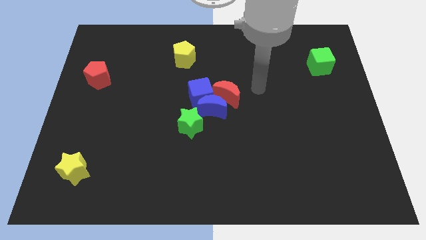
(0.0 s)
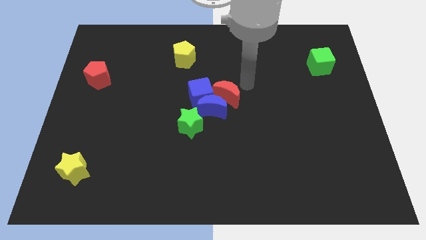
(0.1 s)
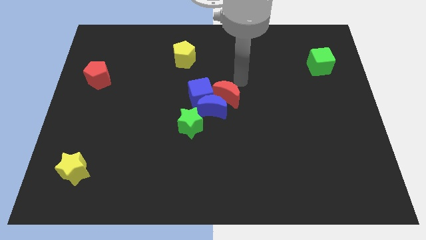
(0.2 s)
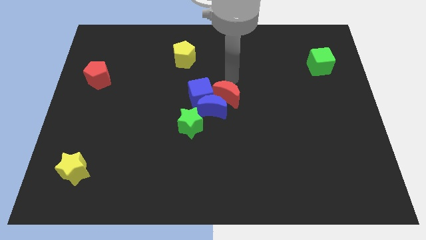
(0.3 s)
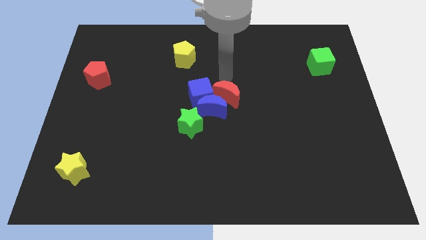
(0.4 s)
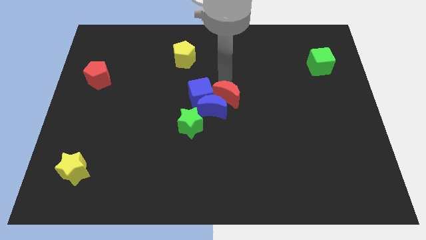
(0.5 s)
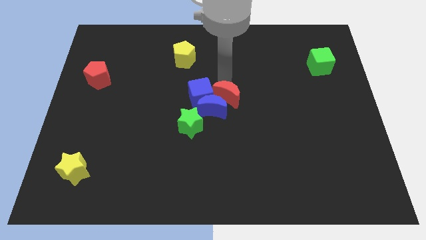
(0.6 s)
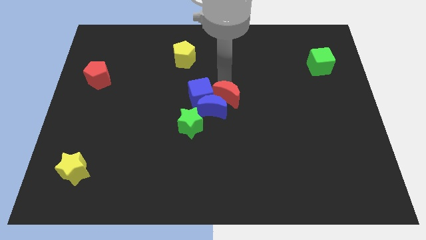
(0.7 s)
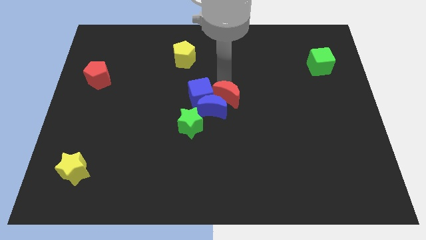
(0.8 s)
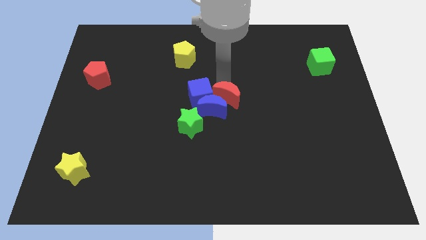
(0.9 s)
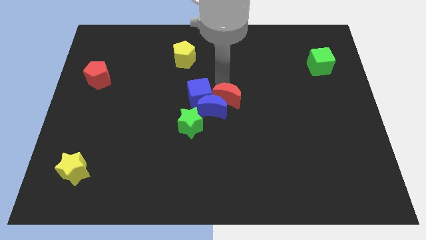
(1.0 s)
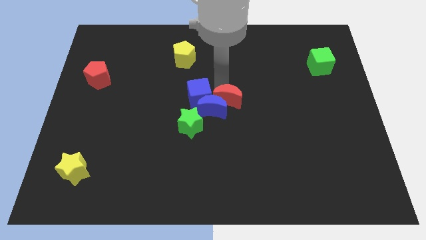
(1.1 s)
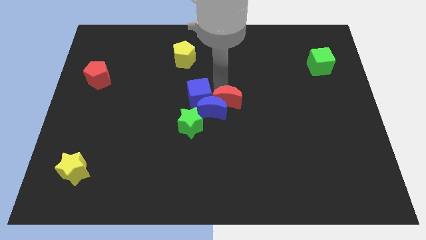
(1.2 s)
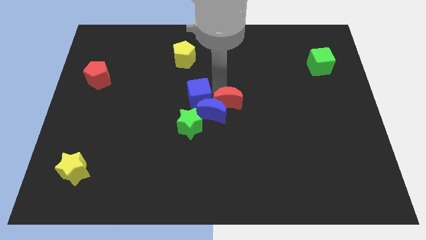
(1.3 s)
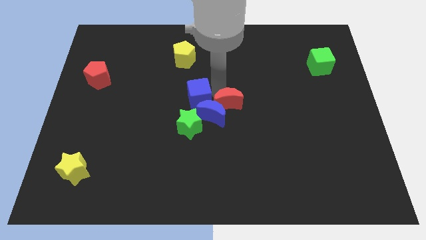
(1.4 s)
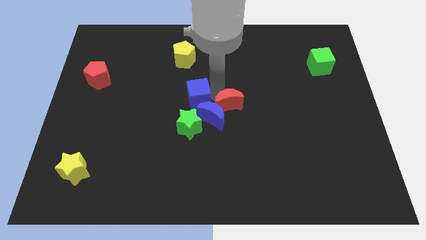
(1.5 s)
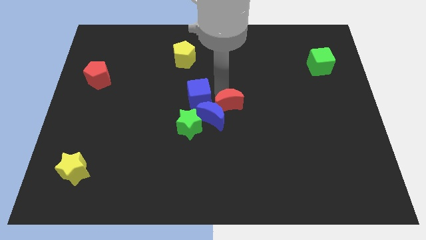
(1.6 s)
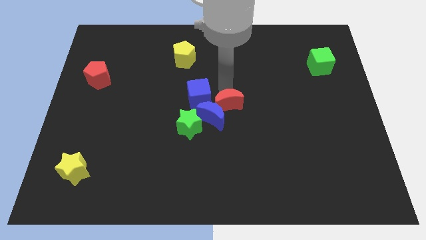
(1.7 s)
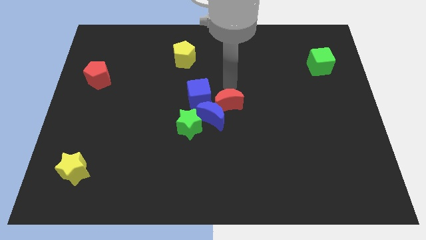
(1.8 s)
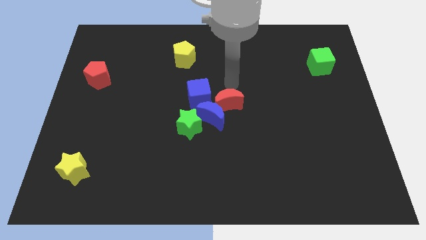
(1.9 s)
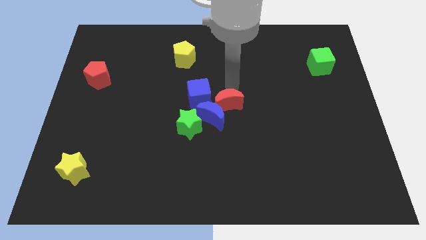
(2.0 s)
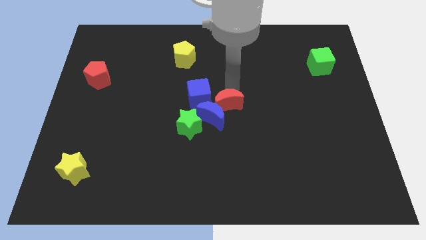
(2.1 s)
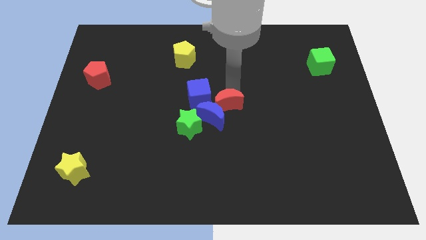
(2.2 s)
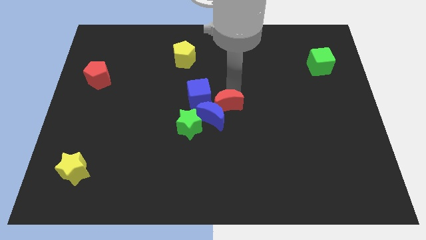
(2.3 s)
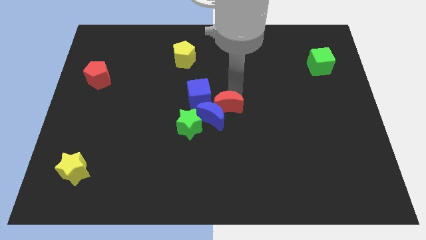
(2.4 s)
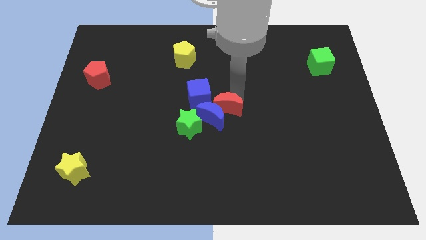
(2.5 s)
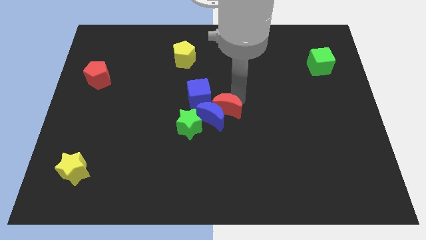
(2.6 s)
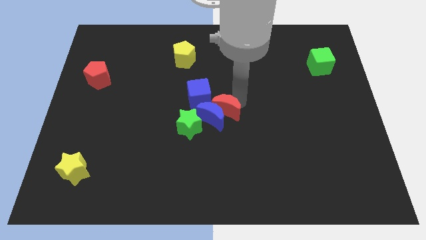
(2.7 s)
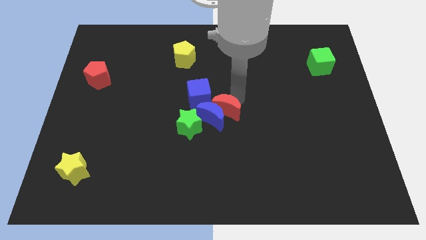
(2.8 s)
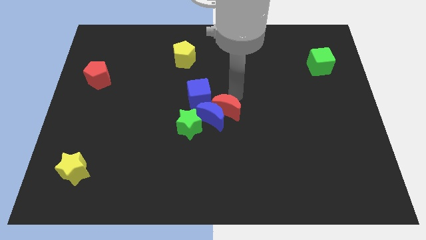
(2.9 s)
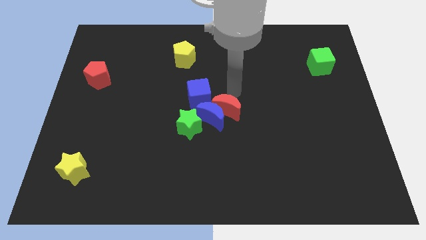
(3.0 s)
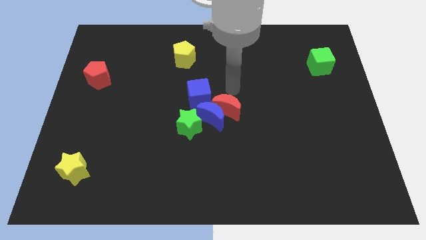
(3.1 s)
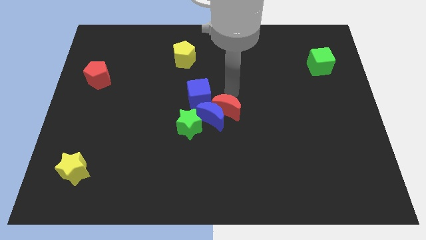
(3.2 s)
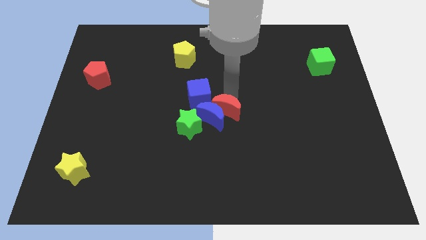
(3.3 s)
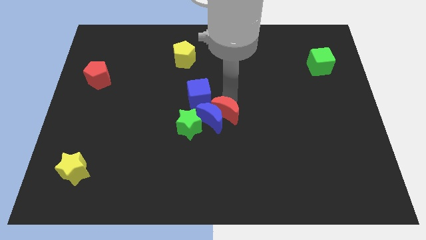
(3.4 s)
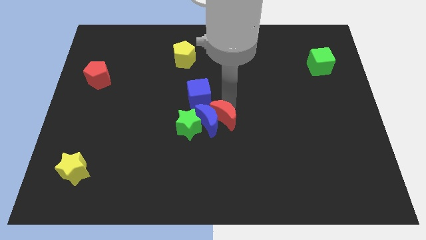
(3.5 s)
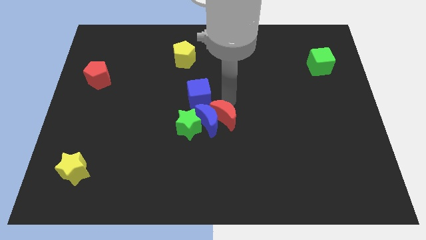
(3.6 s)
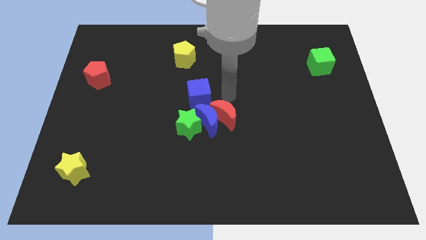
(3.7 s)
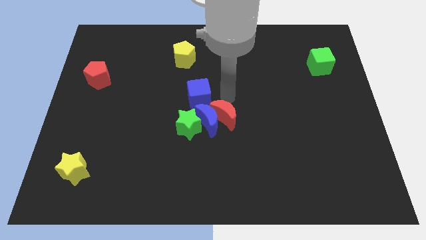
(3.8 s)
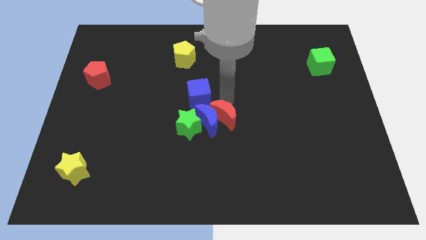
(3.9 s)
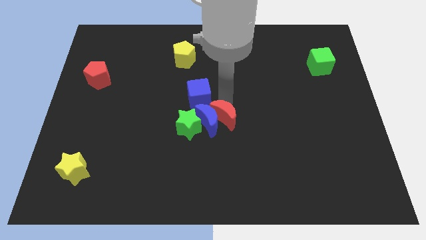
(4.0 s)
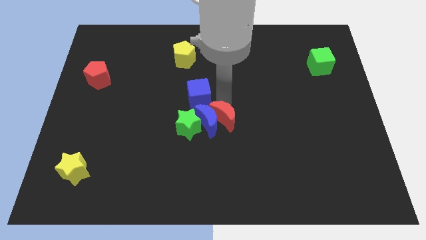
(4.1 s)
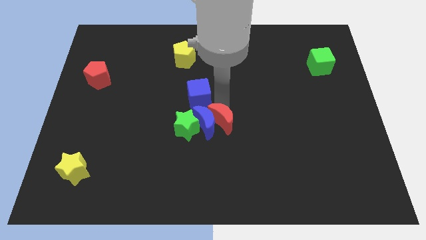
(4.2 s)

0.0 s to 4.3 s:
move the red moon a bit down

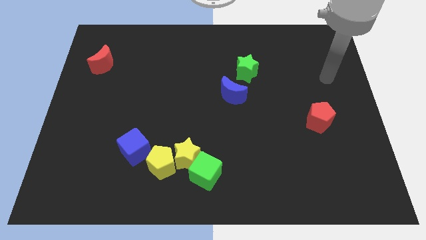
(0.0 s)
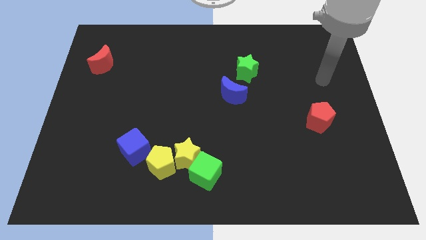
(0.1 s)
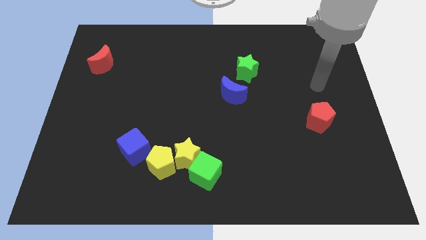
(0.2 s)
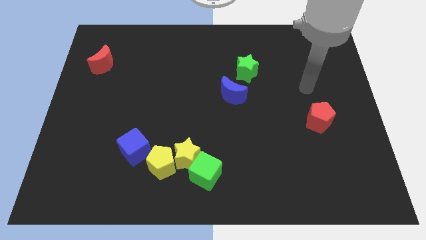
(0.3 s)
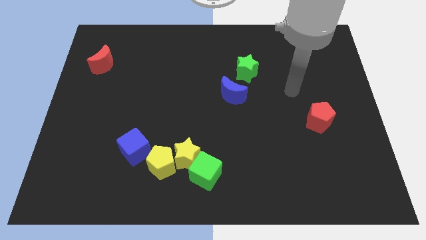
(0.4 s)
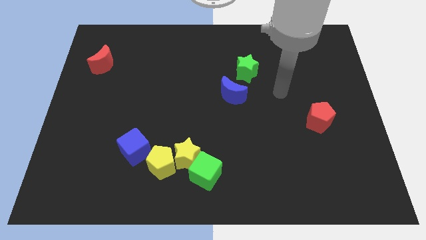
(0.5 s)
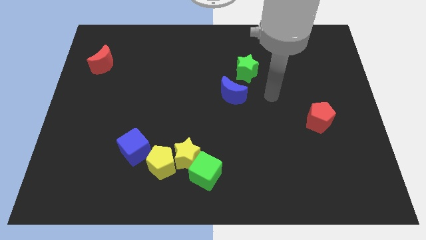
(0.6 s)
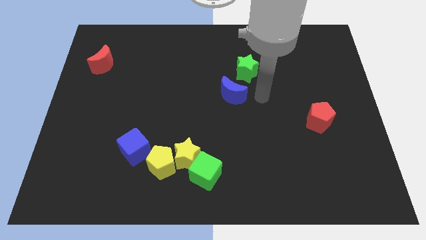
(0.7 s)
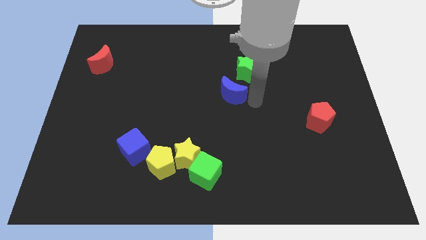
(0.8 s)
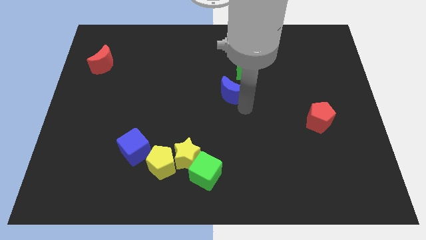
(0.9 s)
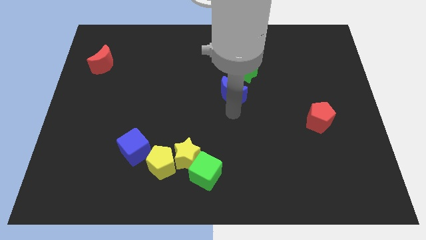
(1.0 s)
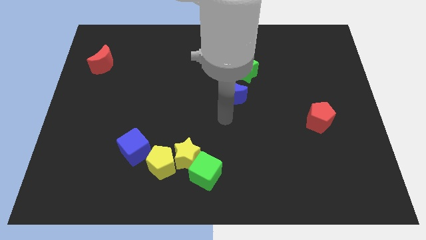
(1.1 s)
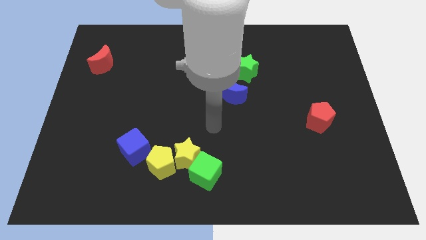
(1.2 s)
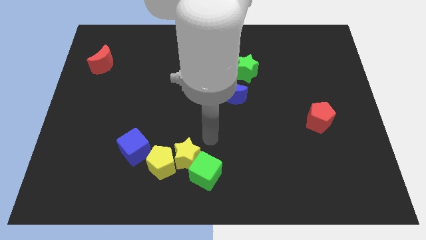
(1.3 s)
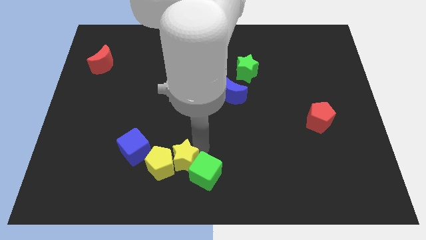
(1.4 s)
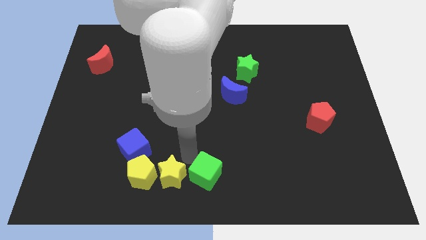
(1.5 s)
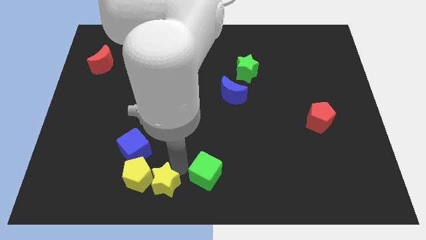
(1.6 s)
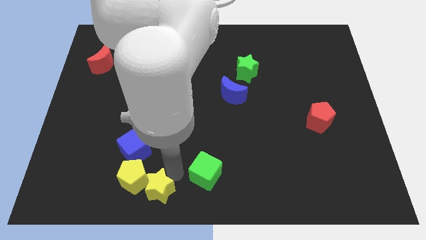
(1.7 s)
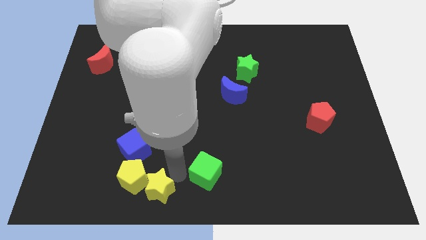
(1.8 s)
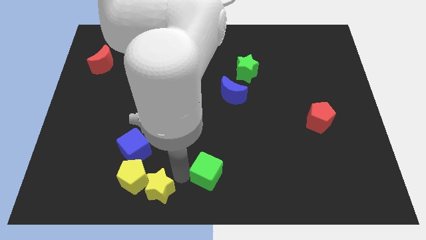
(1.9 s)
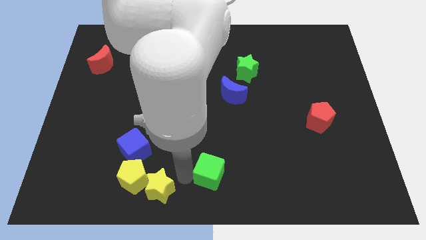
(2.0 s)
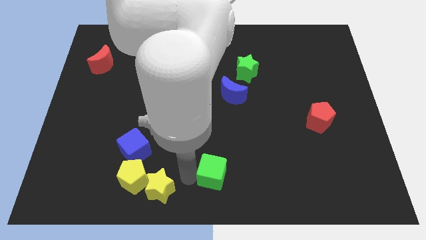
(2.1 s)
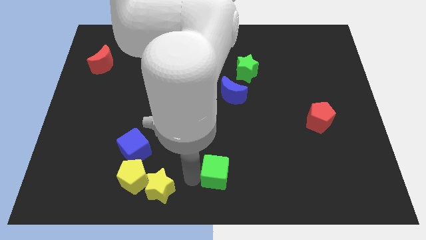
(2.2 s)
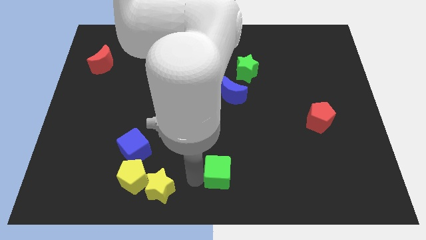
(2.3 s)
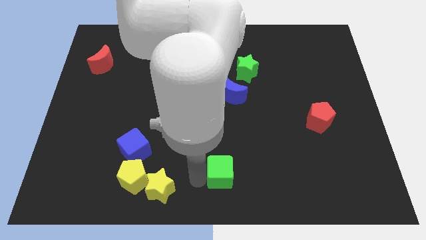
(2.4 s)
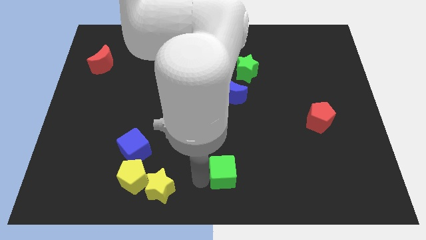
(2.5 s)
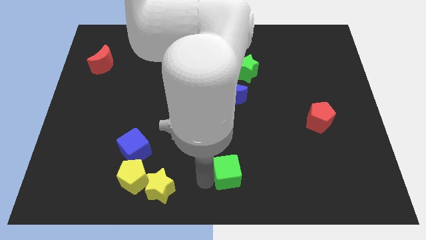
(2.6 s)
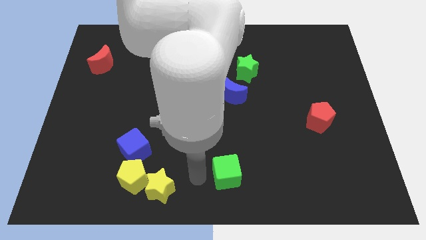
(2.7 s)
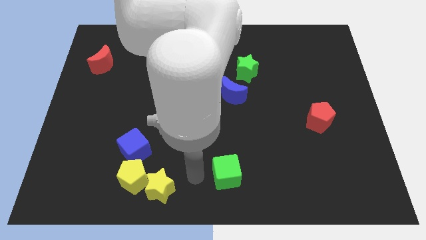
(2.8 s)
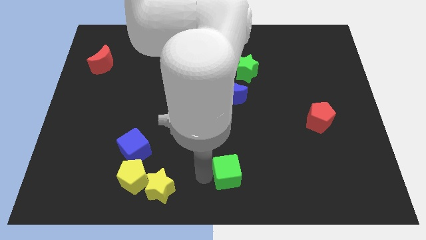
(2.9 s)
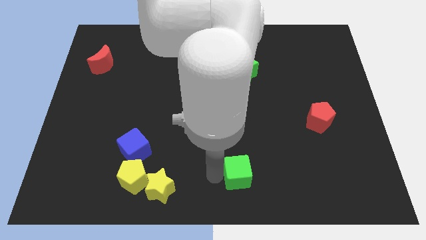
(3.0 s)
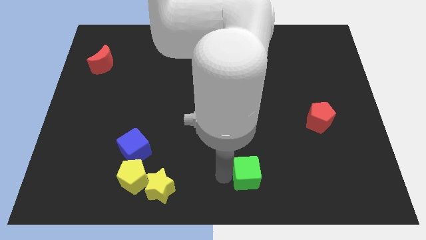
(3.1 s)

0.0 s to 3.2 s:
slide the green cube a little bit right

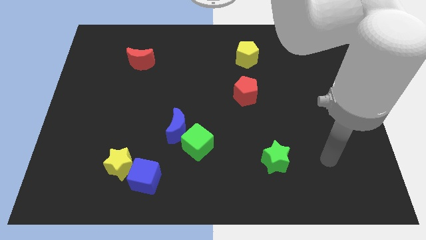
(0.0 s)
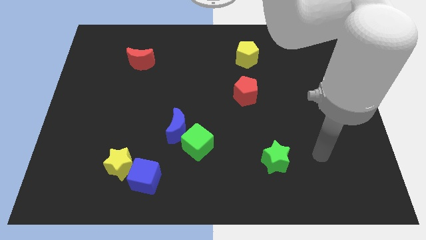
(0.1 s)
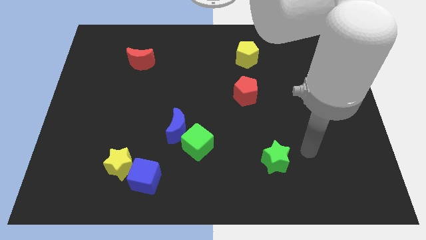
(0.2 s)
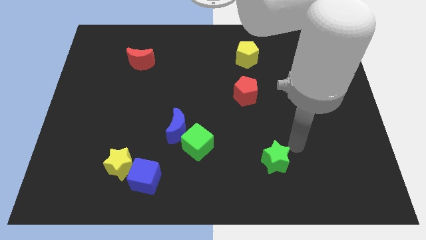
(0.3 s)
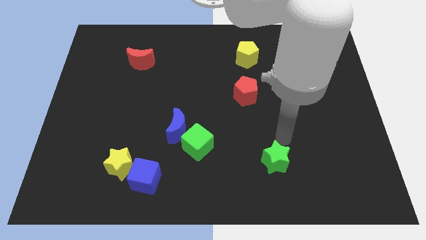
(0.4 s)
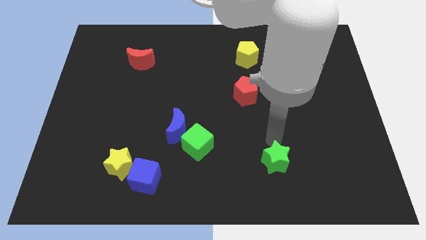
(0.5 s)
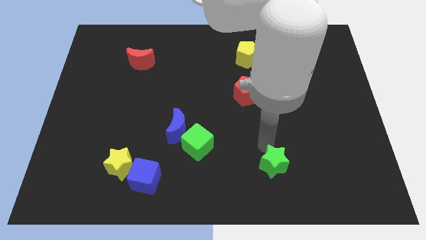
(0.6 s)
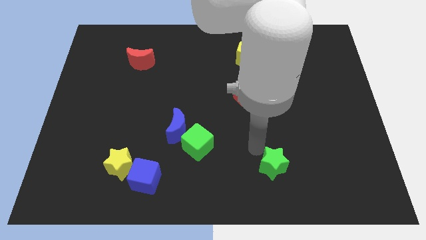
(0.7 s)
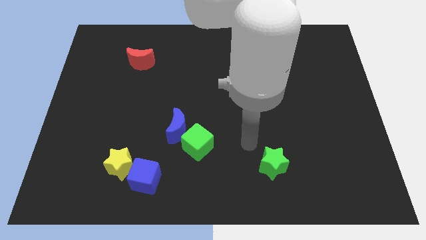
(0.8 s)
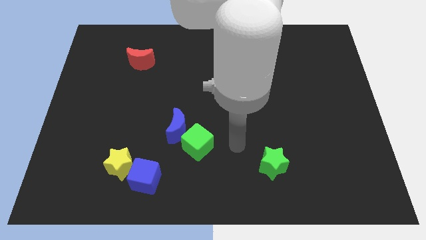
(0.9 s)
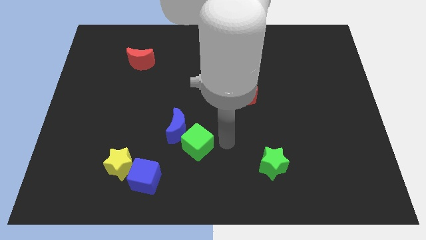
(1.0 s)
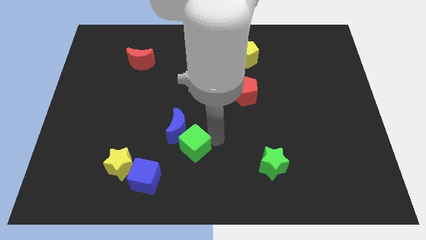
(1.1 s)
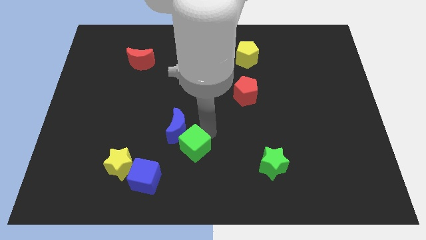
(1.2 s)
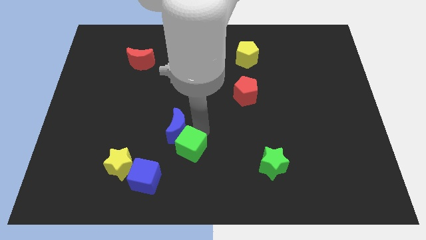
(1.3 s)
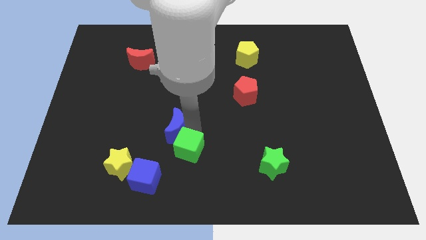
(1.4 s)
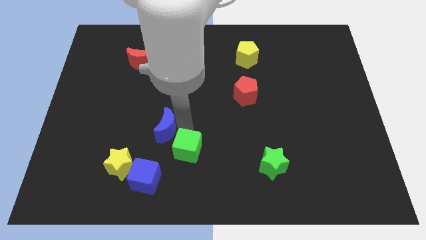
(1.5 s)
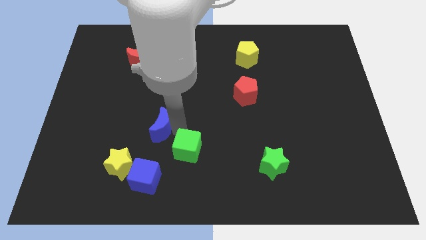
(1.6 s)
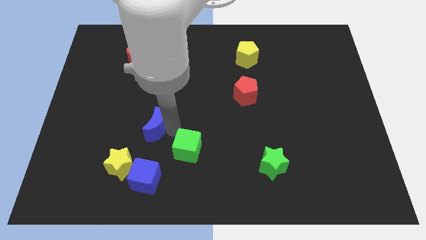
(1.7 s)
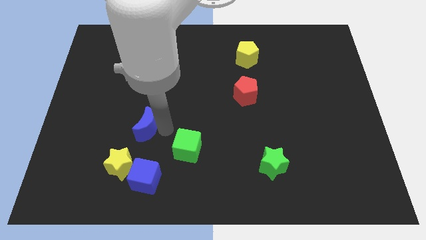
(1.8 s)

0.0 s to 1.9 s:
slide the blue moon a bit to the left
